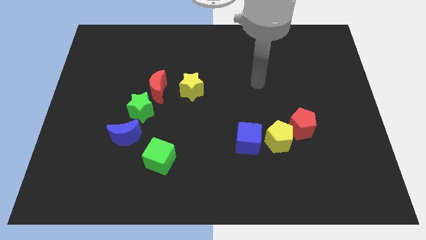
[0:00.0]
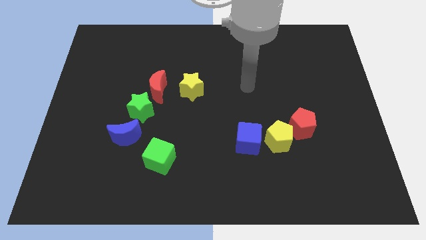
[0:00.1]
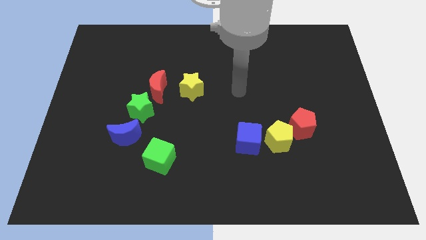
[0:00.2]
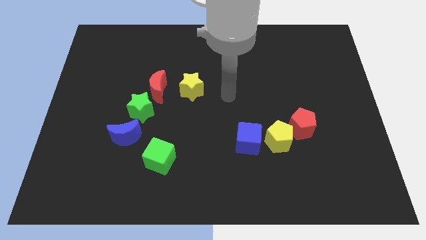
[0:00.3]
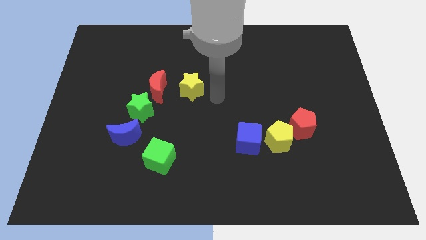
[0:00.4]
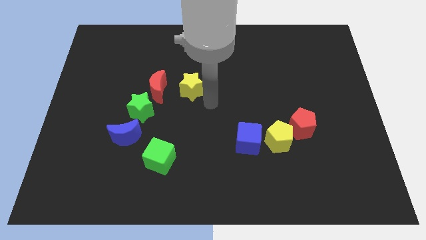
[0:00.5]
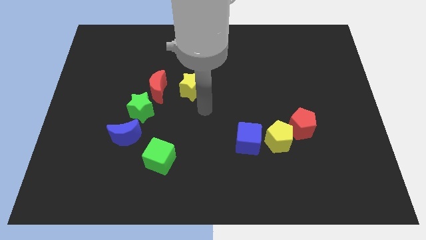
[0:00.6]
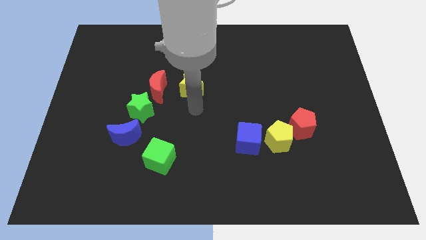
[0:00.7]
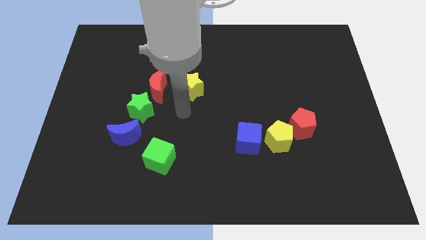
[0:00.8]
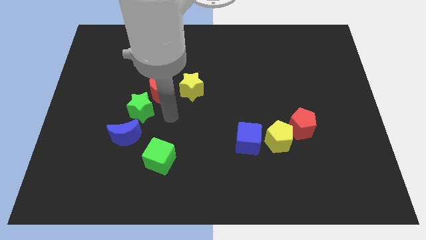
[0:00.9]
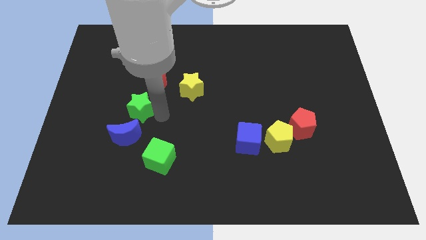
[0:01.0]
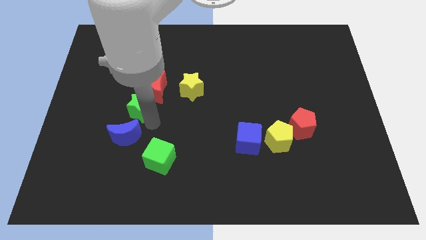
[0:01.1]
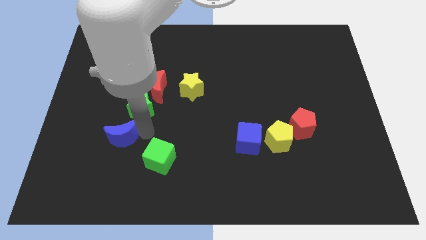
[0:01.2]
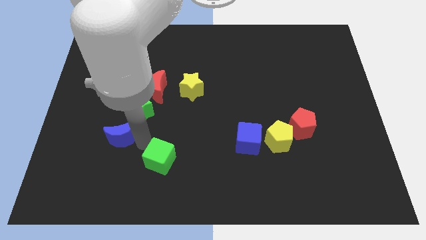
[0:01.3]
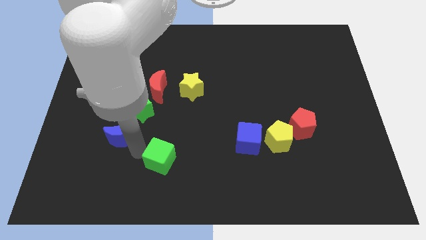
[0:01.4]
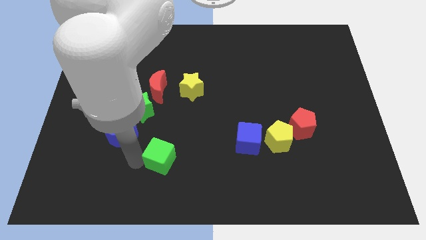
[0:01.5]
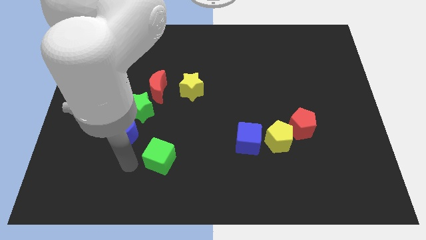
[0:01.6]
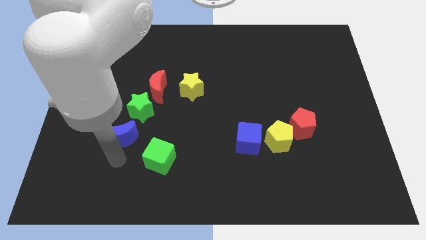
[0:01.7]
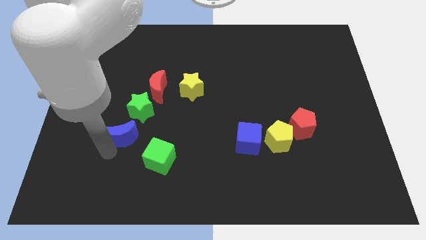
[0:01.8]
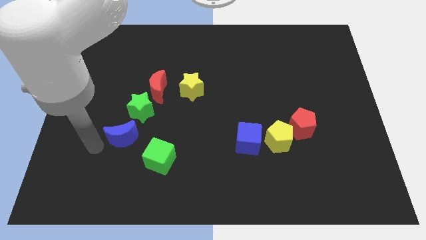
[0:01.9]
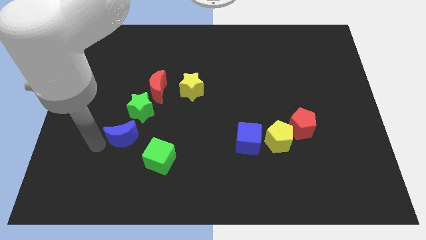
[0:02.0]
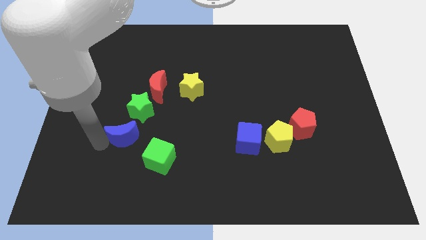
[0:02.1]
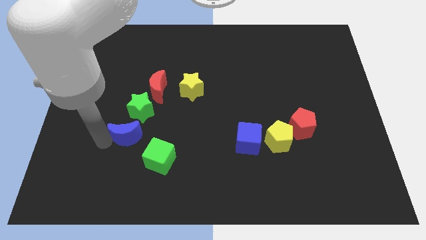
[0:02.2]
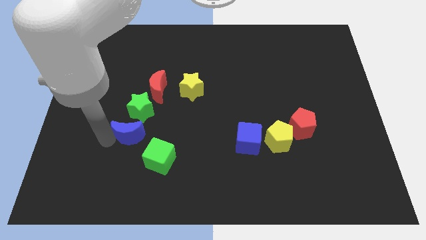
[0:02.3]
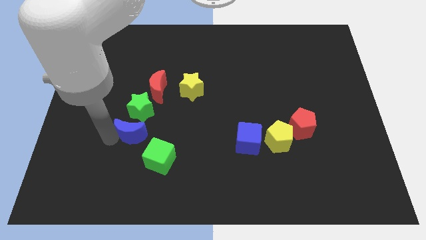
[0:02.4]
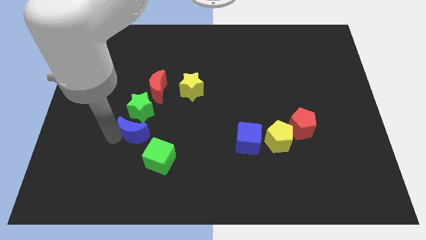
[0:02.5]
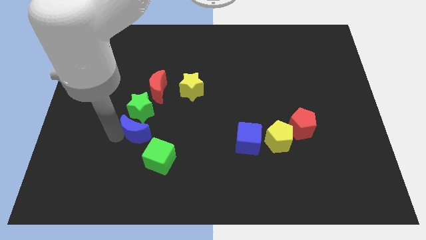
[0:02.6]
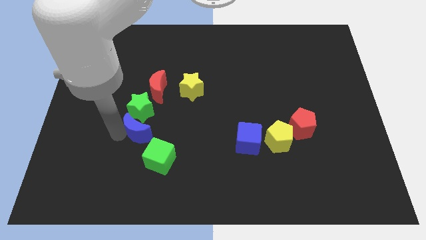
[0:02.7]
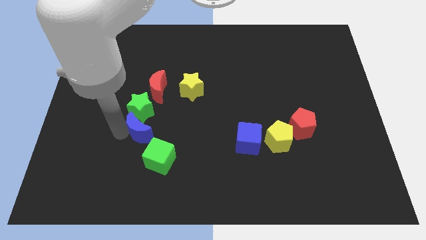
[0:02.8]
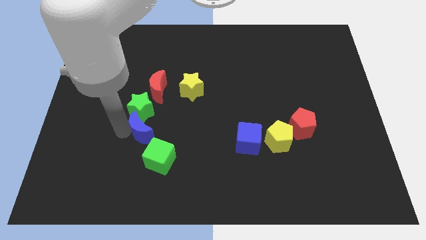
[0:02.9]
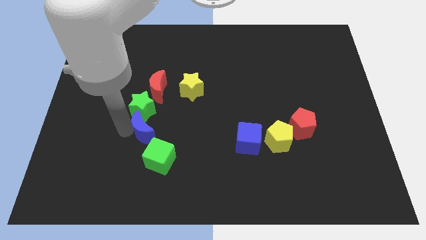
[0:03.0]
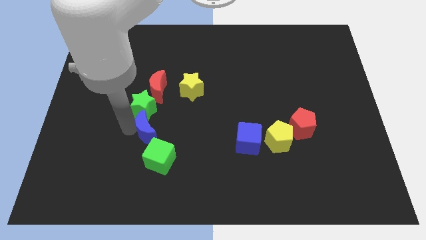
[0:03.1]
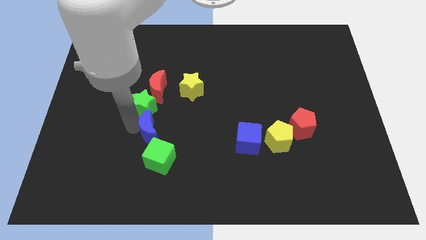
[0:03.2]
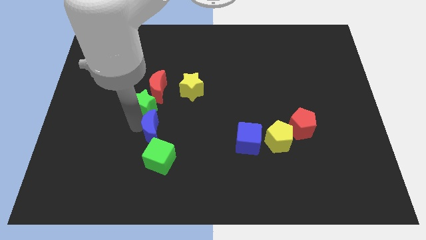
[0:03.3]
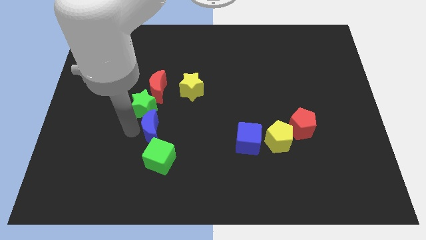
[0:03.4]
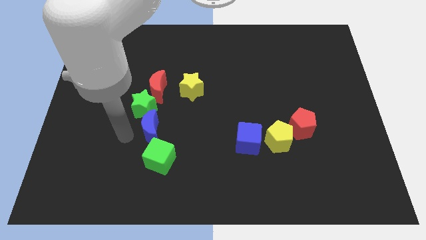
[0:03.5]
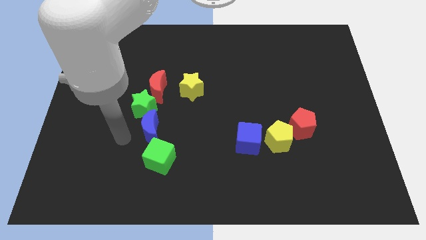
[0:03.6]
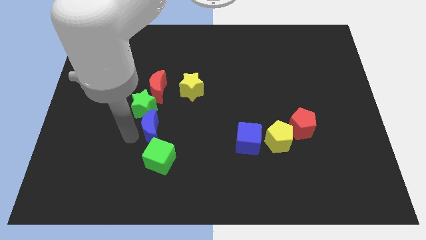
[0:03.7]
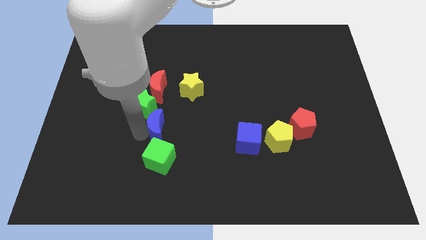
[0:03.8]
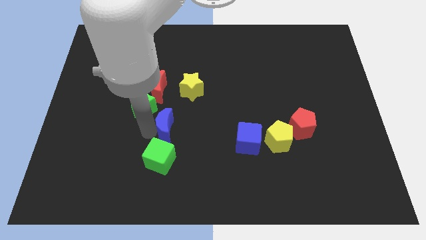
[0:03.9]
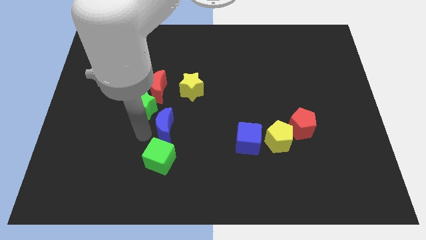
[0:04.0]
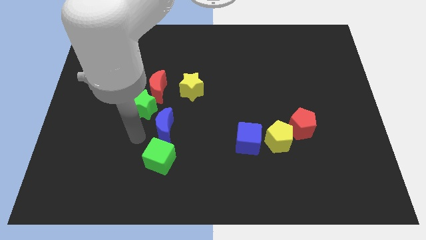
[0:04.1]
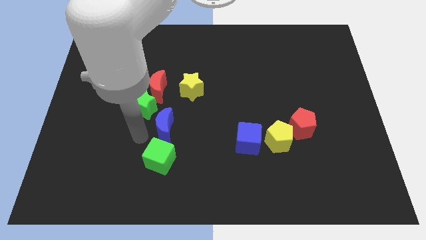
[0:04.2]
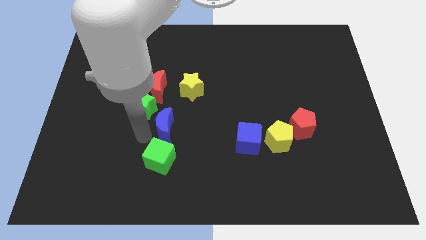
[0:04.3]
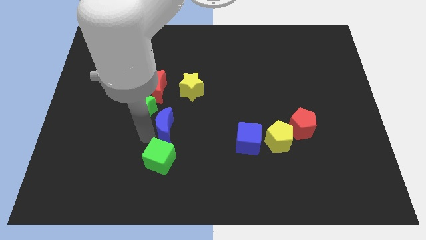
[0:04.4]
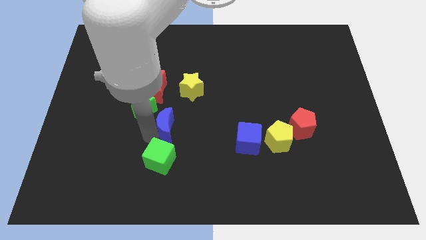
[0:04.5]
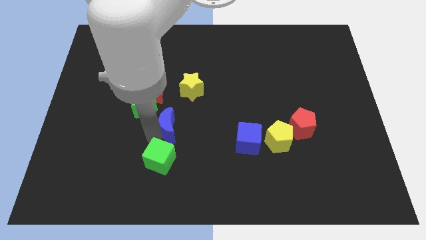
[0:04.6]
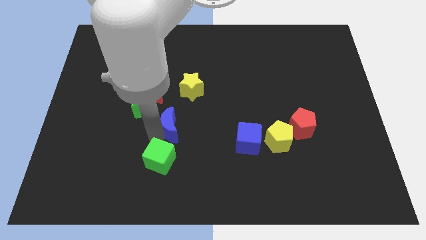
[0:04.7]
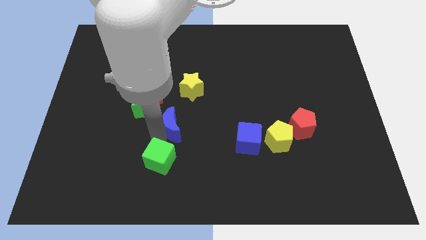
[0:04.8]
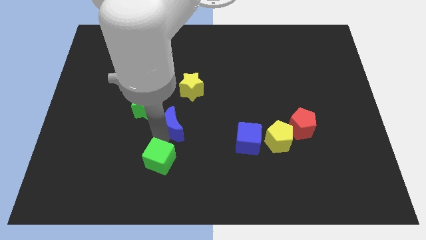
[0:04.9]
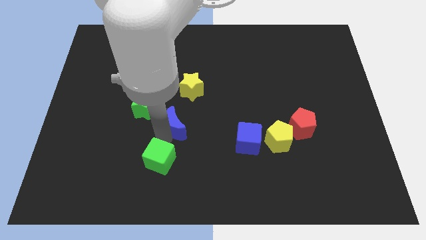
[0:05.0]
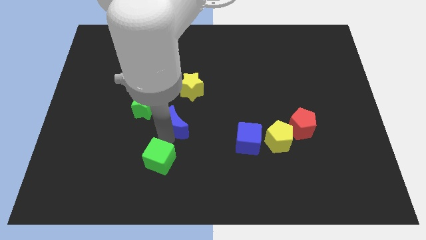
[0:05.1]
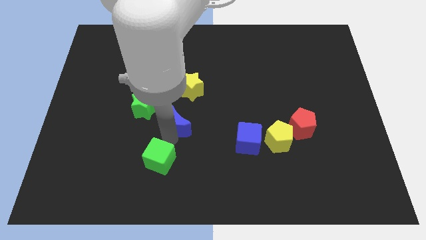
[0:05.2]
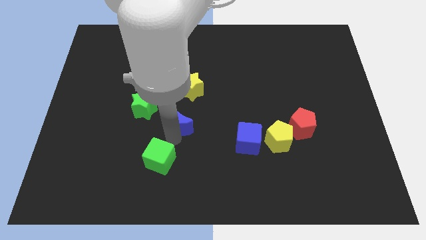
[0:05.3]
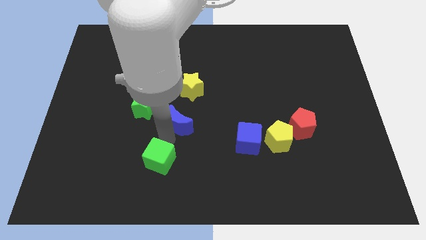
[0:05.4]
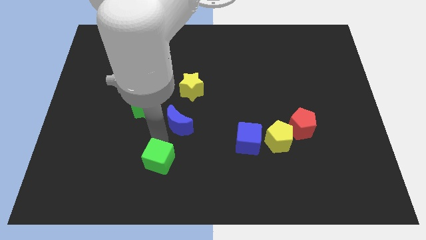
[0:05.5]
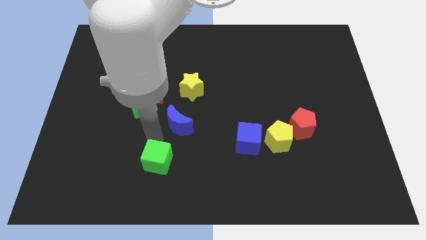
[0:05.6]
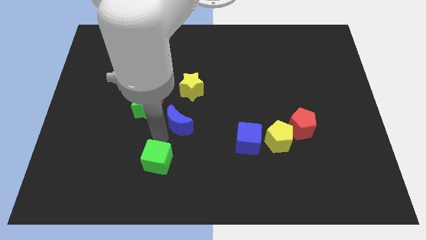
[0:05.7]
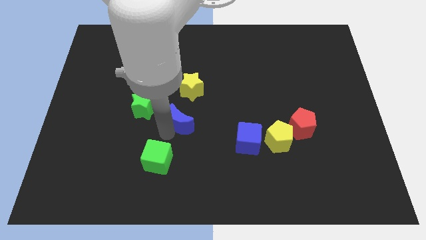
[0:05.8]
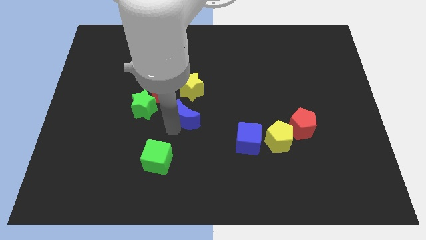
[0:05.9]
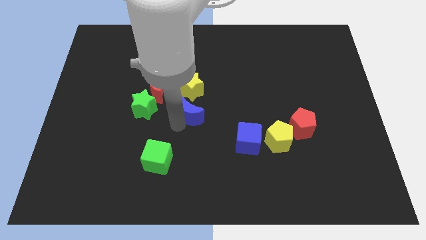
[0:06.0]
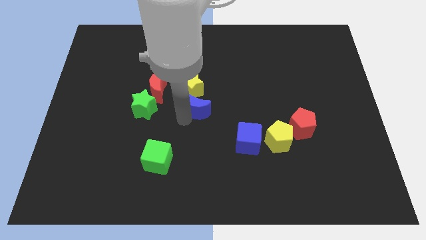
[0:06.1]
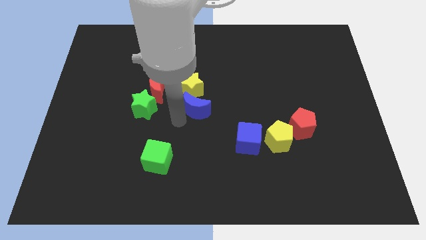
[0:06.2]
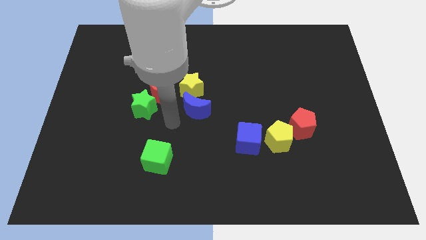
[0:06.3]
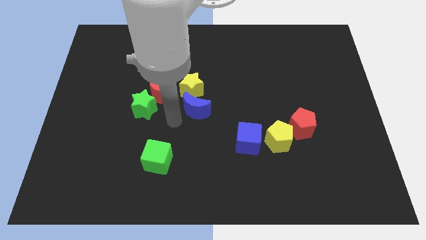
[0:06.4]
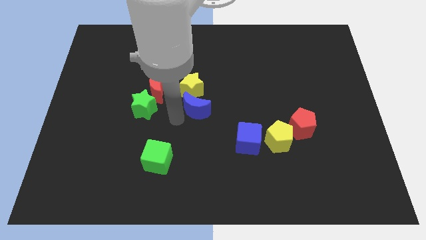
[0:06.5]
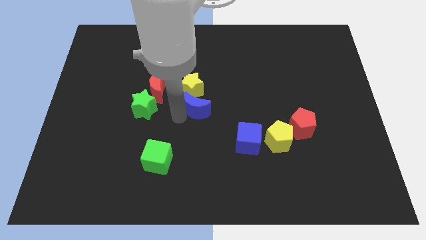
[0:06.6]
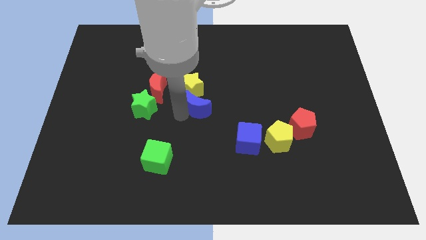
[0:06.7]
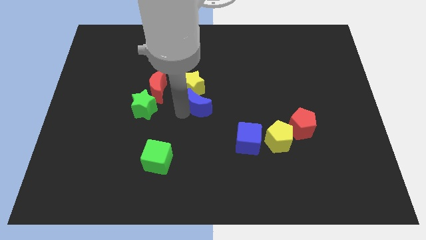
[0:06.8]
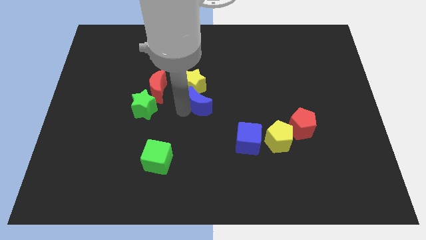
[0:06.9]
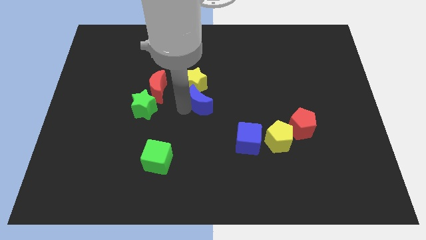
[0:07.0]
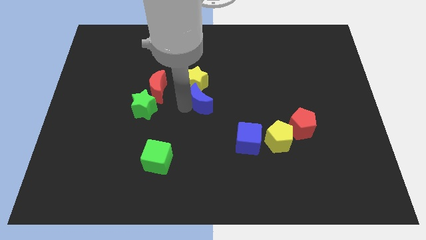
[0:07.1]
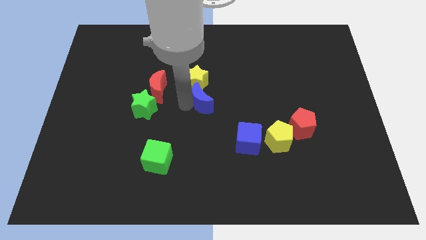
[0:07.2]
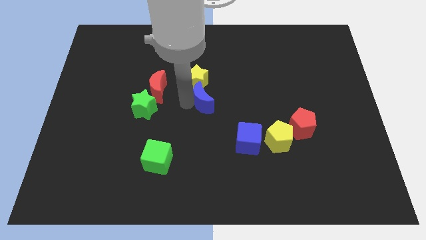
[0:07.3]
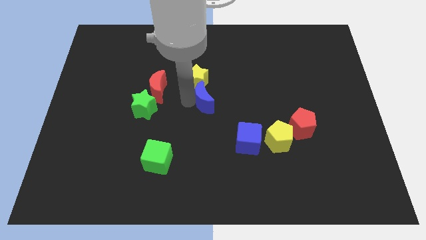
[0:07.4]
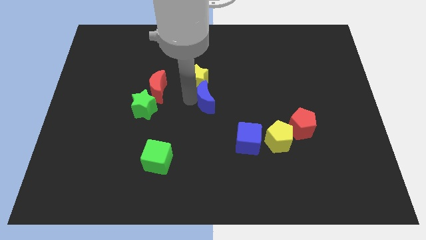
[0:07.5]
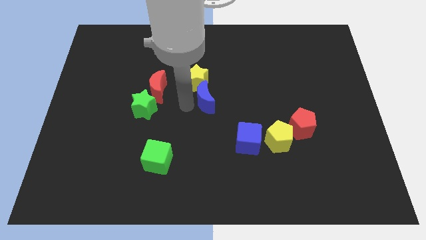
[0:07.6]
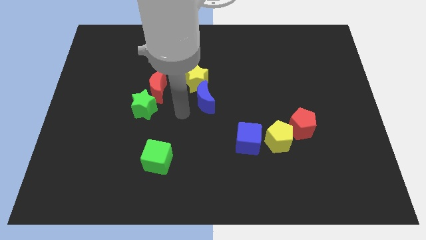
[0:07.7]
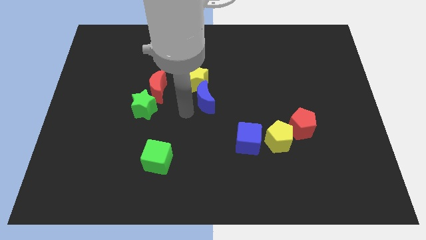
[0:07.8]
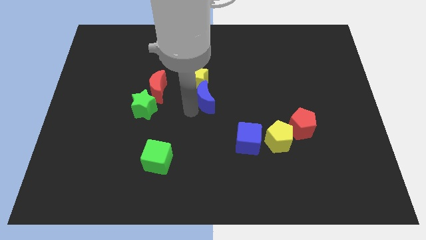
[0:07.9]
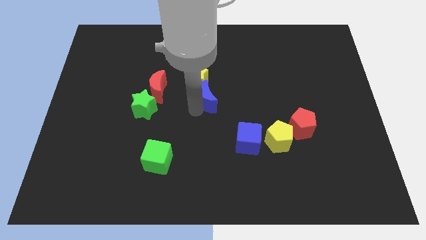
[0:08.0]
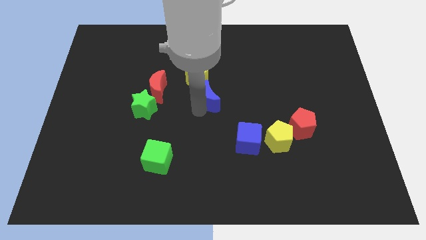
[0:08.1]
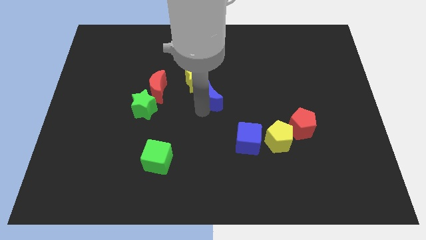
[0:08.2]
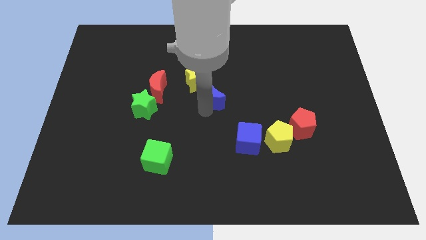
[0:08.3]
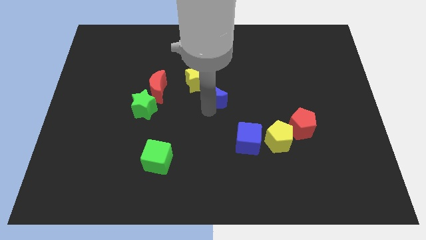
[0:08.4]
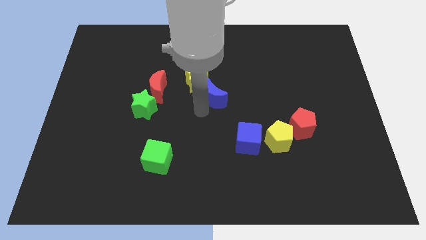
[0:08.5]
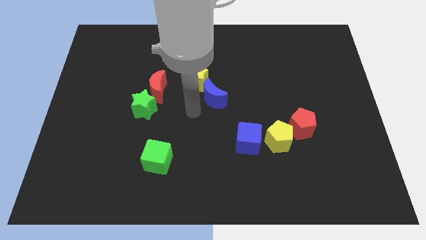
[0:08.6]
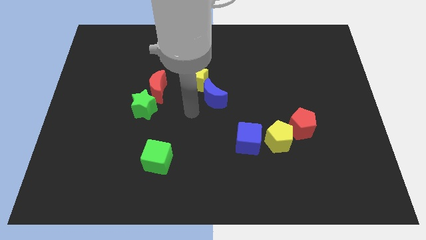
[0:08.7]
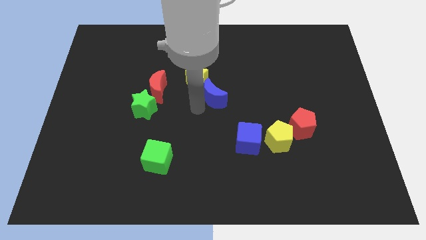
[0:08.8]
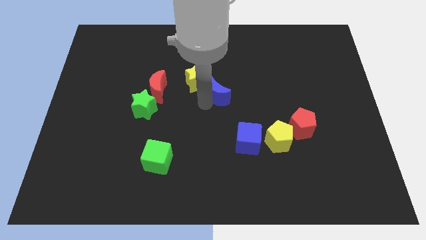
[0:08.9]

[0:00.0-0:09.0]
put the blue moon just right of the yellow star
